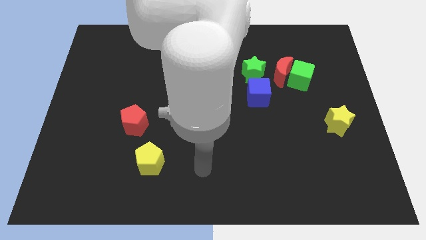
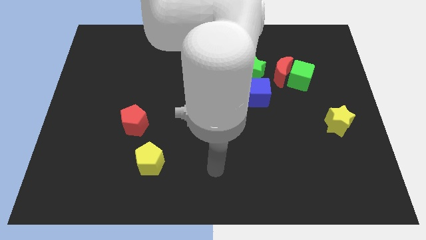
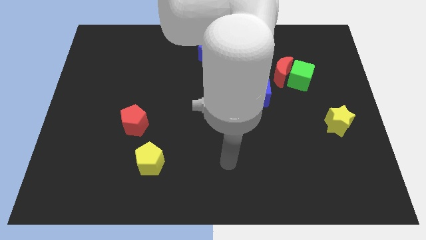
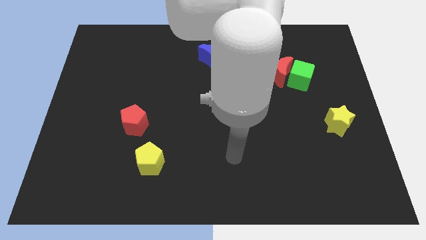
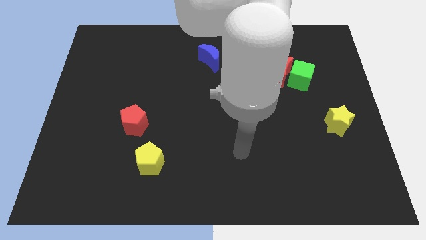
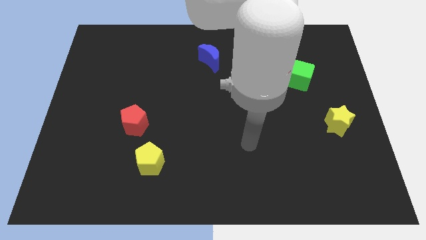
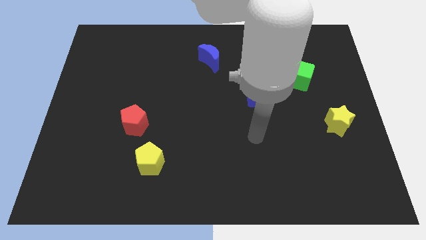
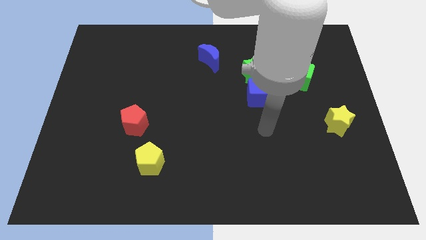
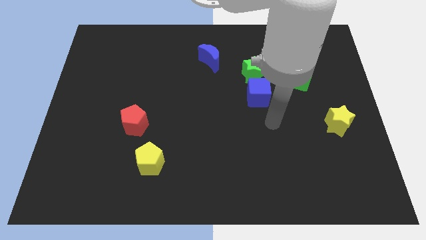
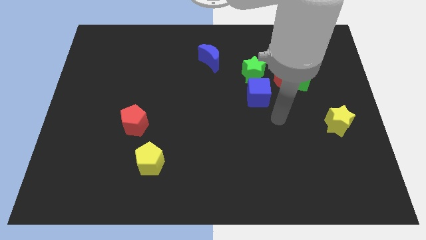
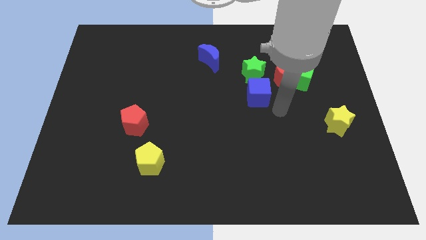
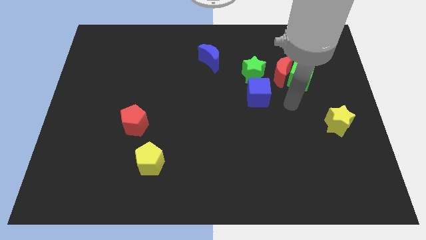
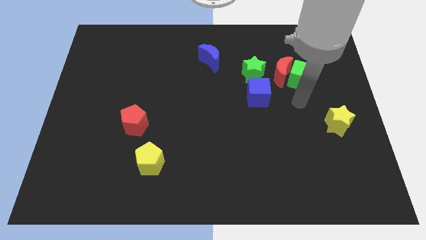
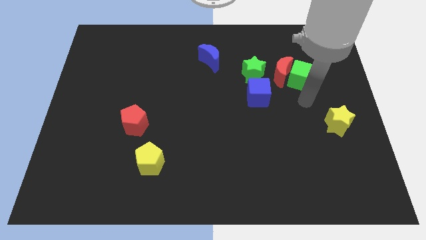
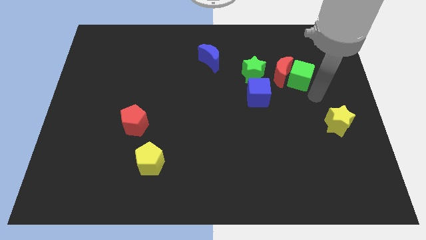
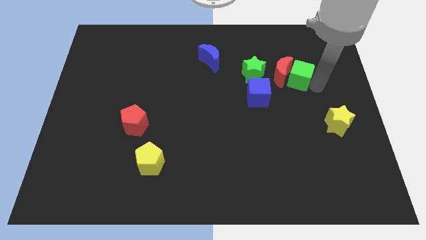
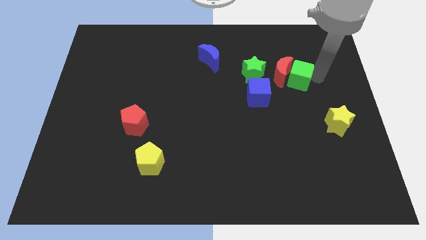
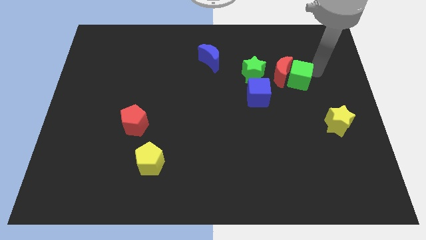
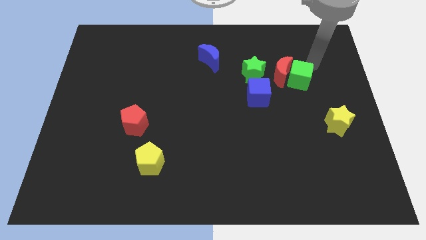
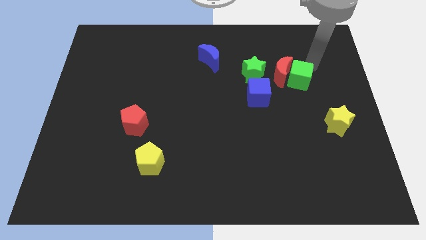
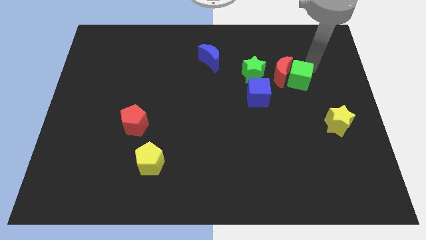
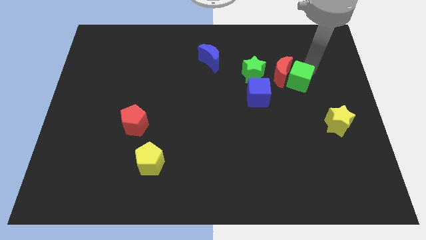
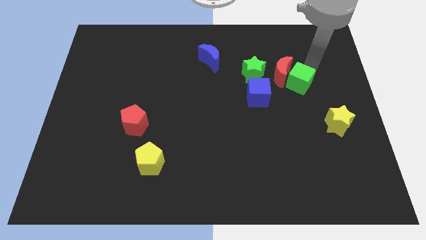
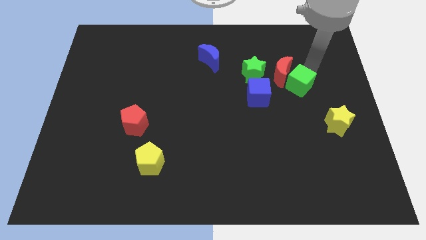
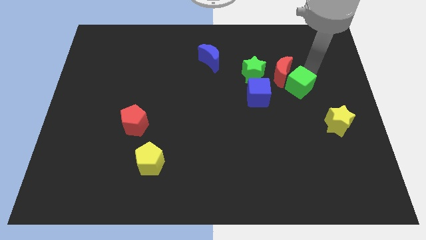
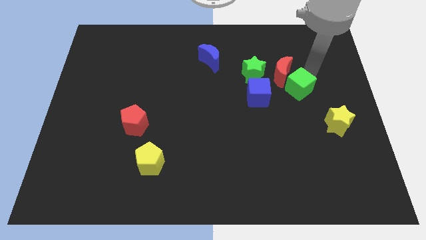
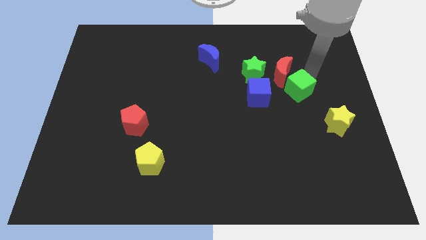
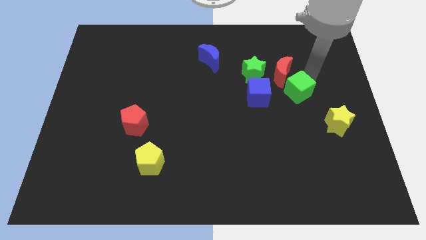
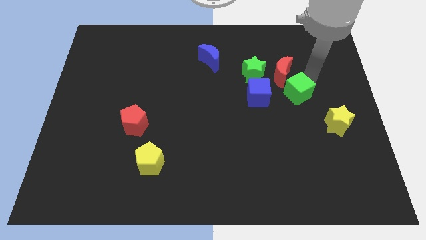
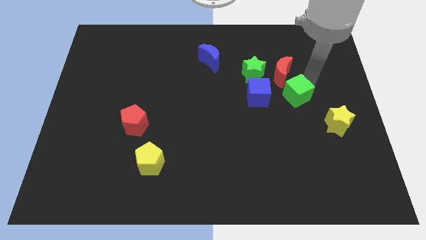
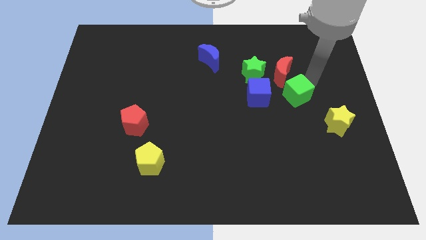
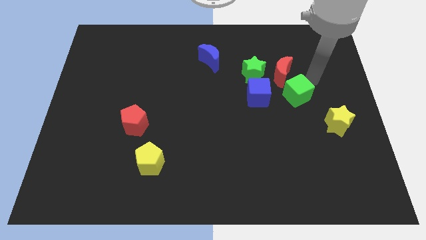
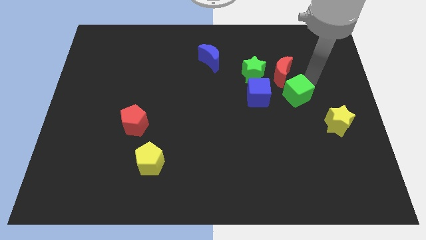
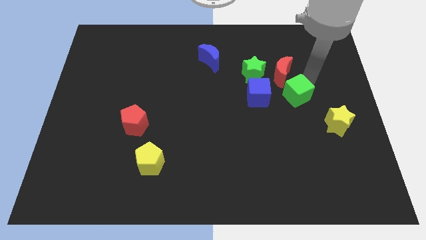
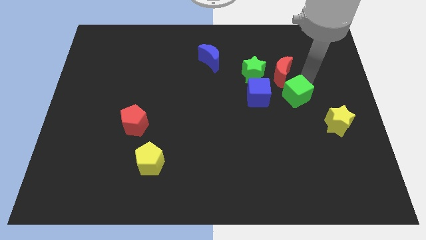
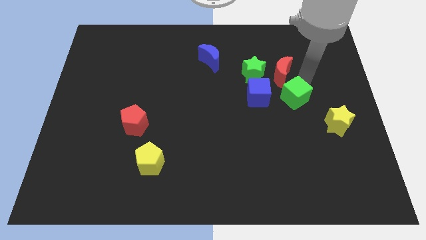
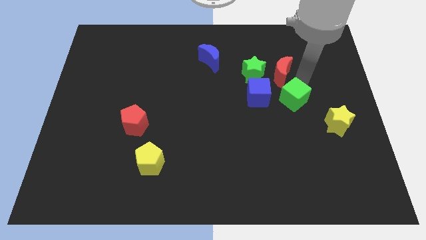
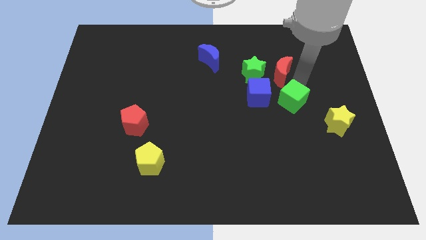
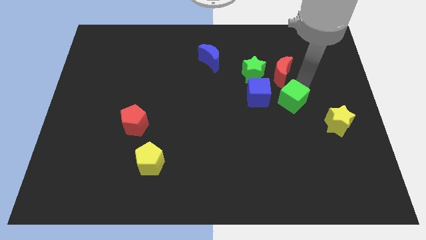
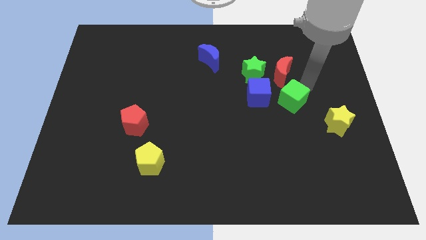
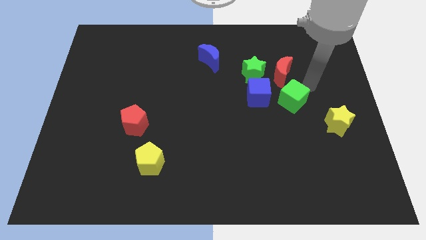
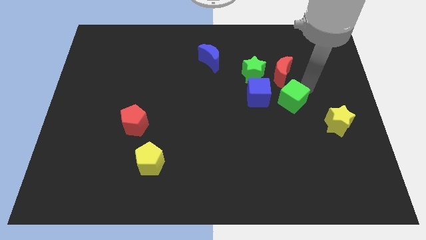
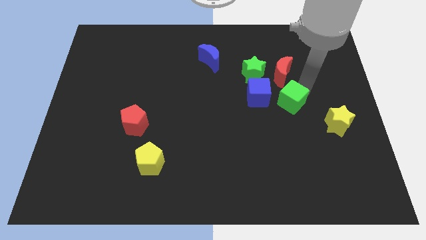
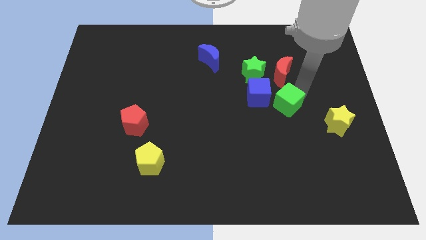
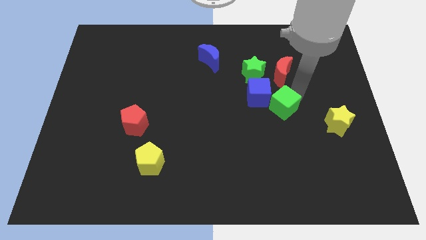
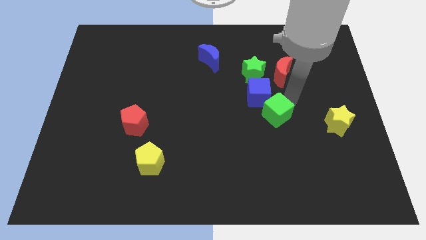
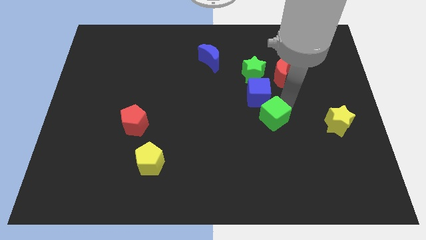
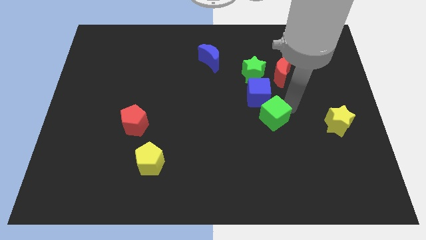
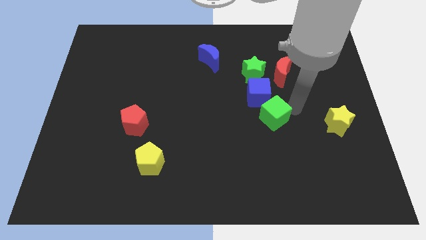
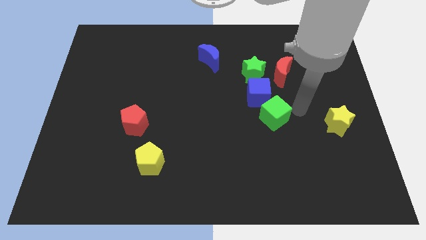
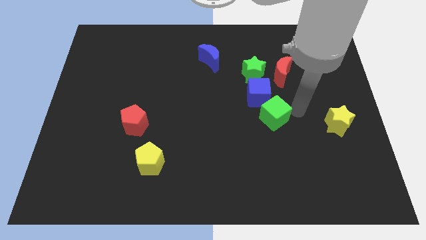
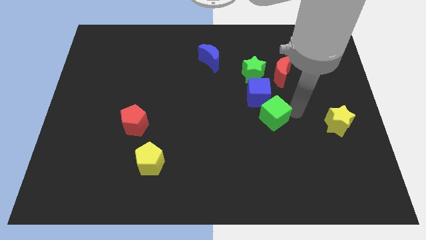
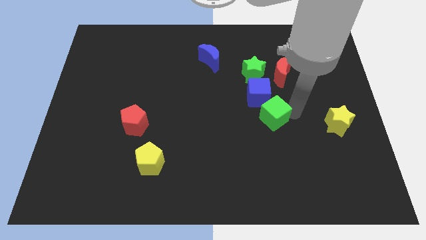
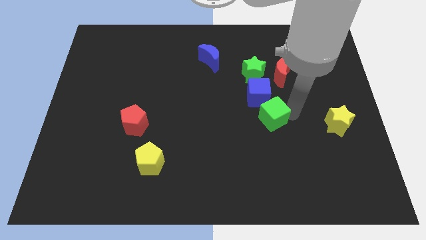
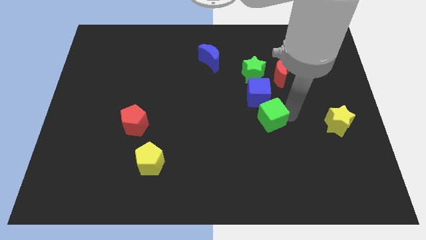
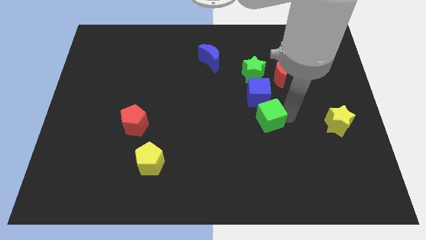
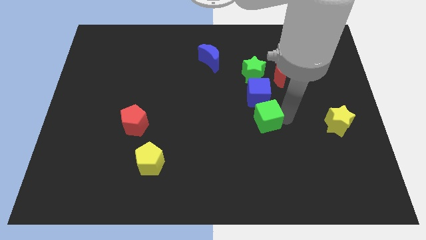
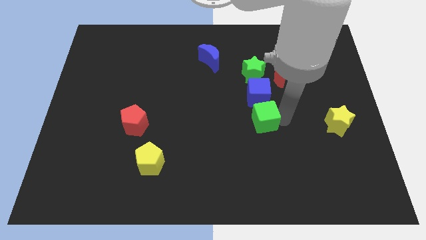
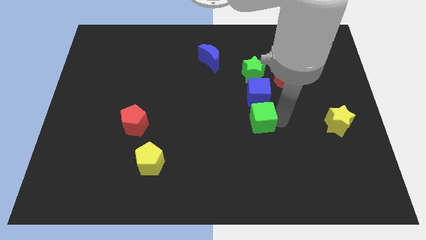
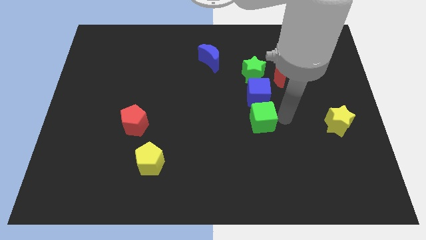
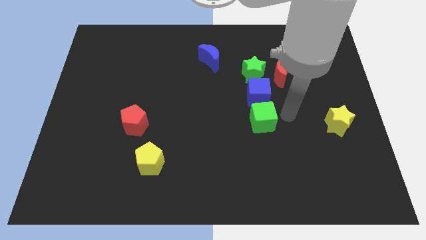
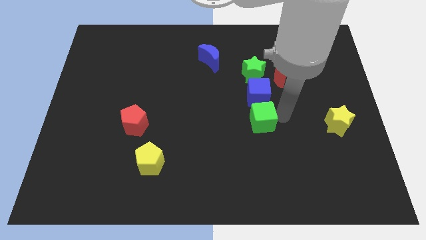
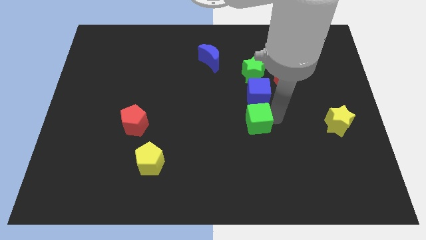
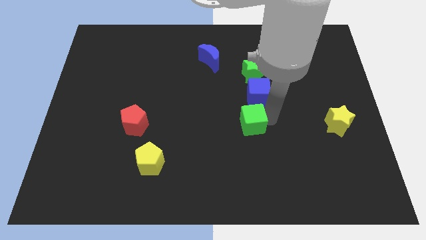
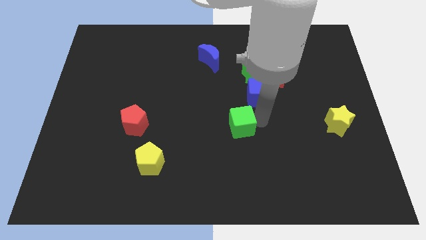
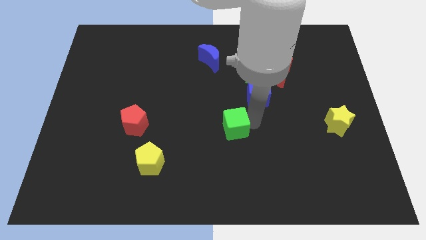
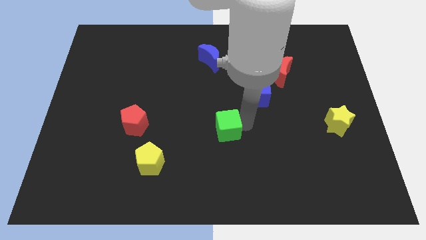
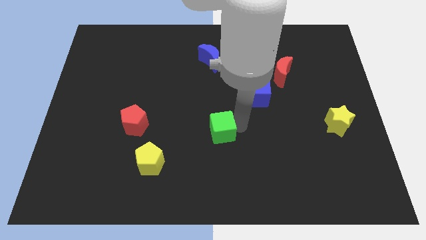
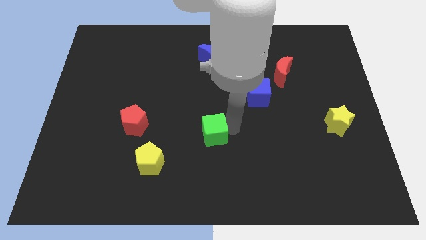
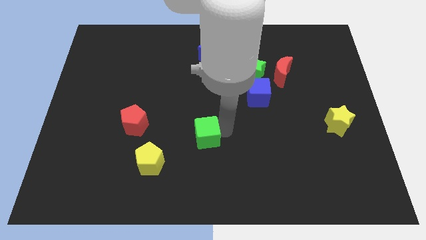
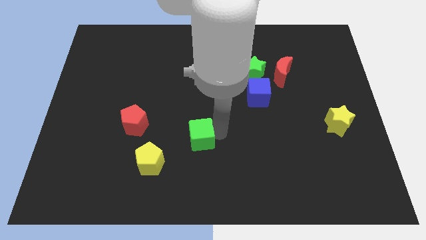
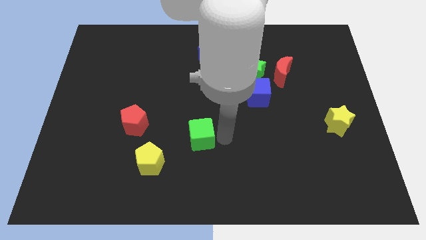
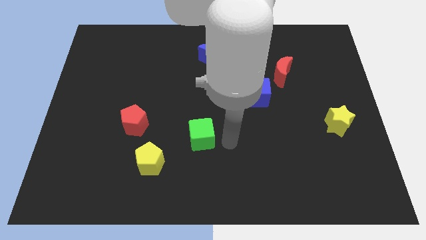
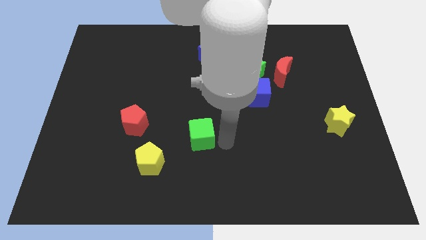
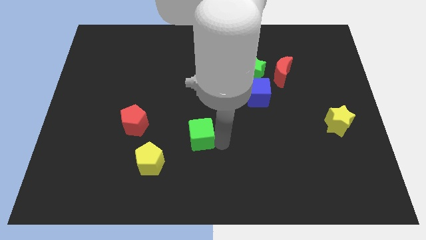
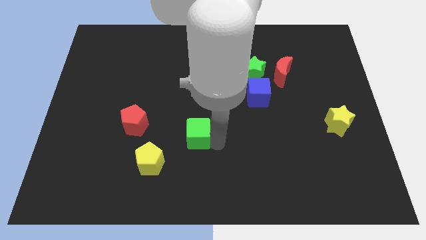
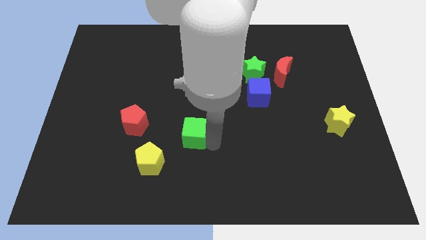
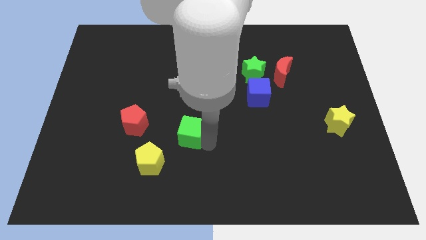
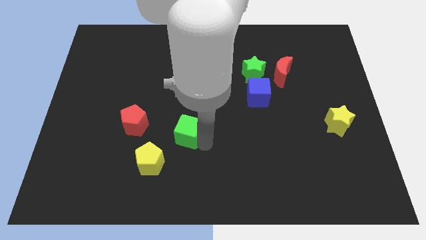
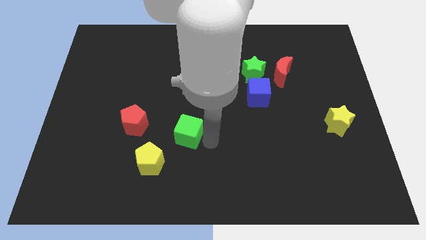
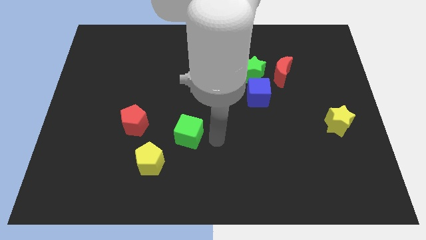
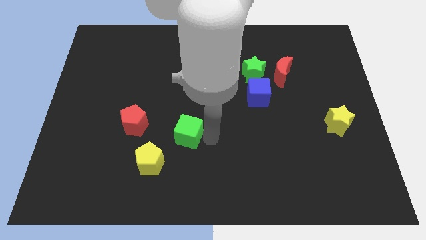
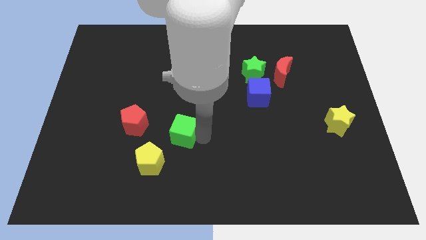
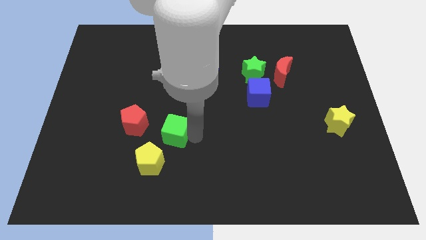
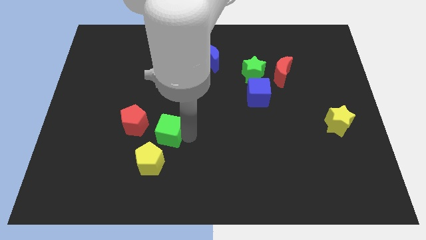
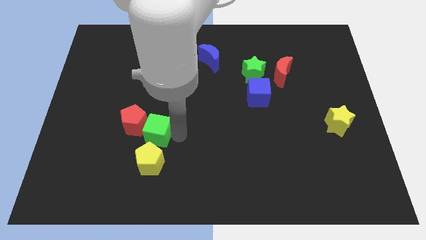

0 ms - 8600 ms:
move the green cube close to the red pentagon
